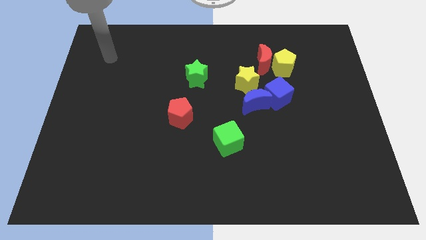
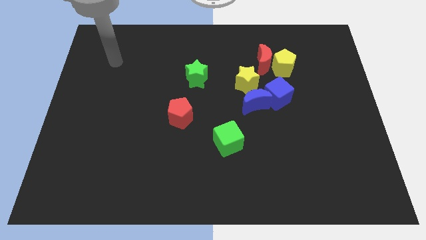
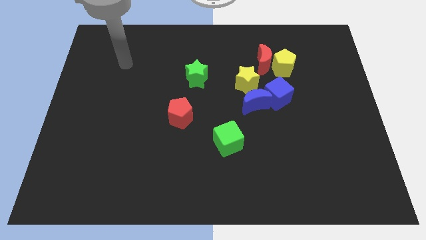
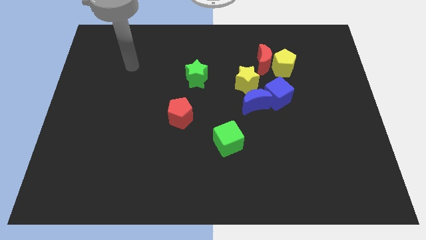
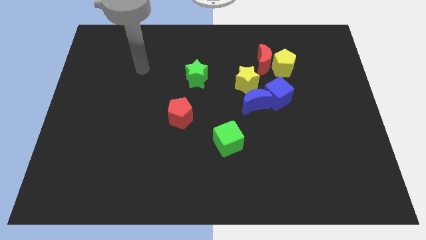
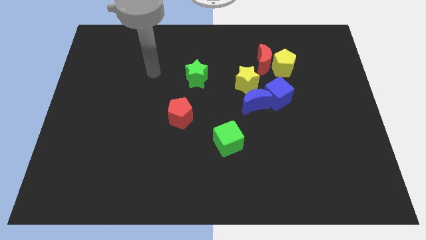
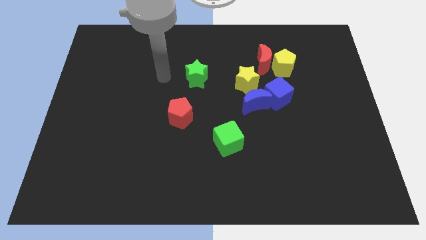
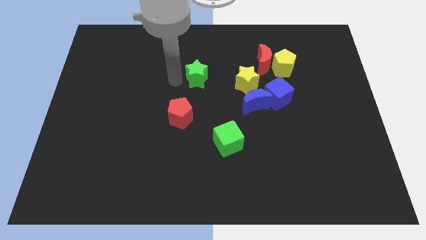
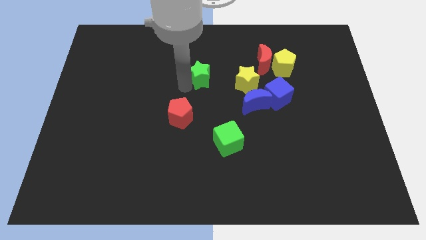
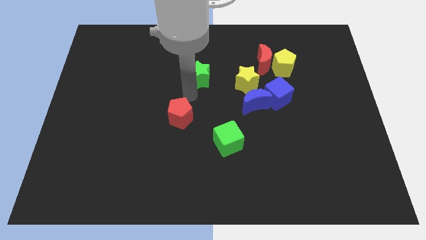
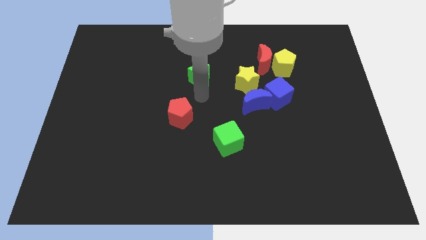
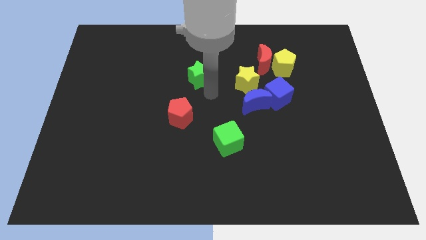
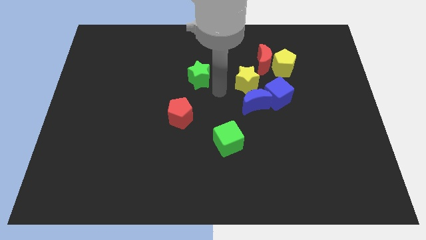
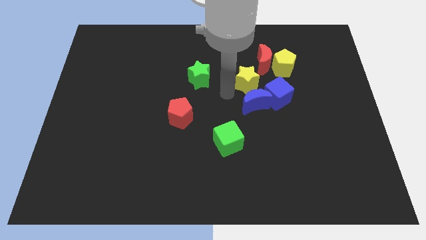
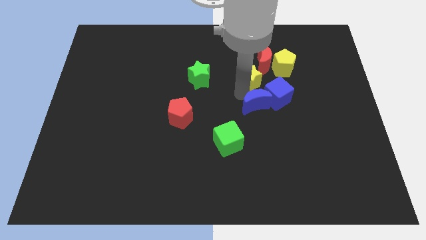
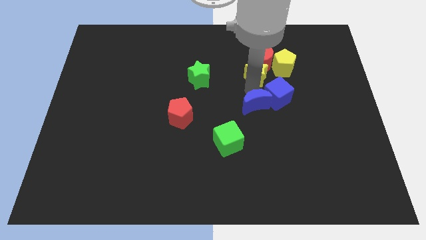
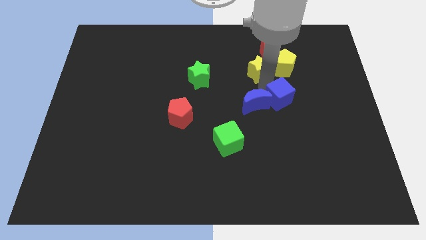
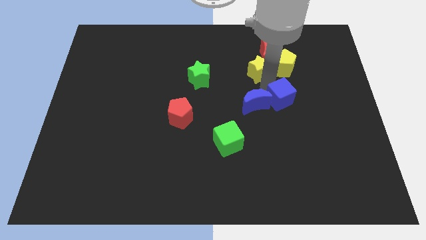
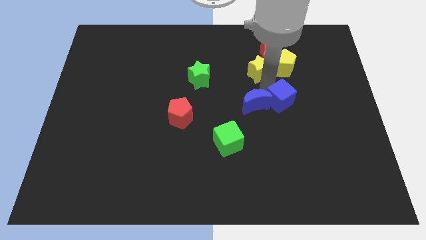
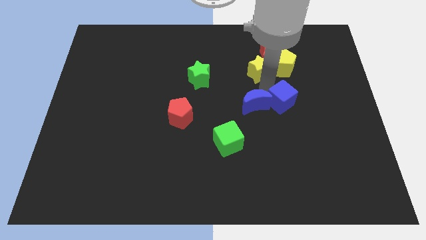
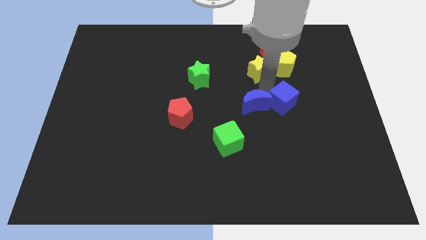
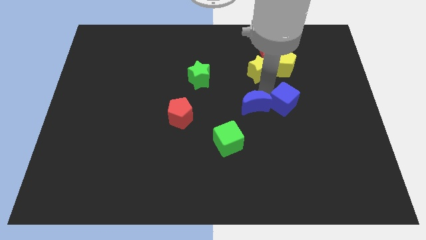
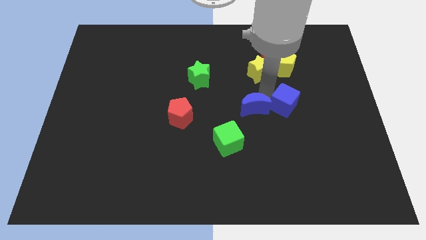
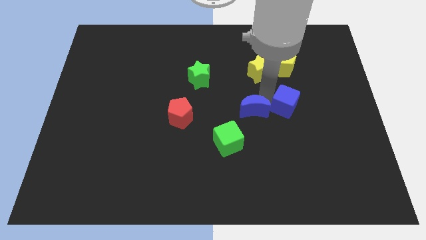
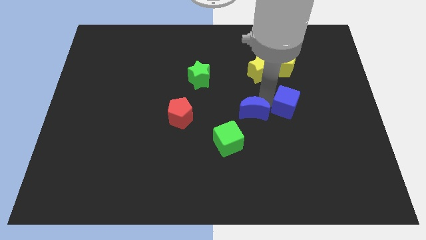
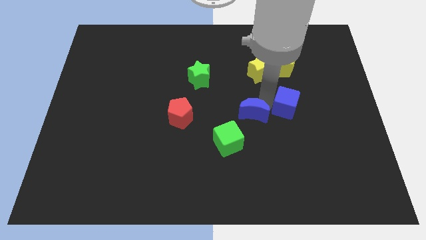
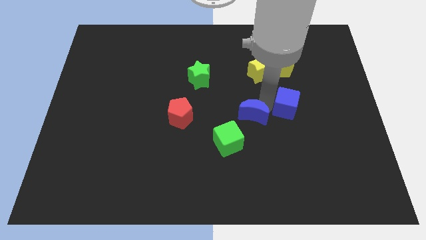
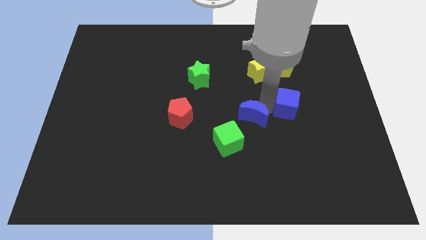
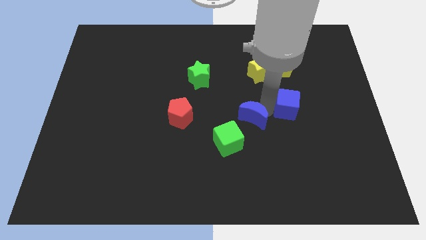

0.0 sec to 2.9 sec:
pull the blue moon apart from the blue cube and yellow star

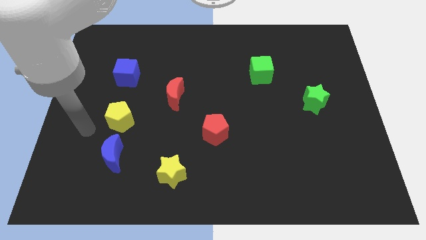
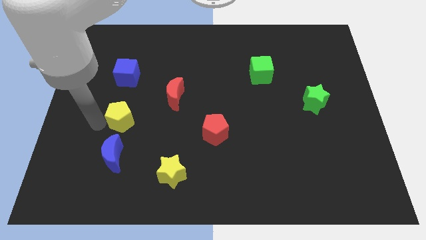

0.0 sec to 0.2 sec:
pull the blue moon apart from the yellow pentagon

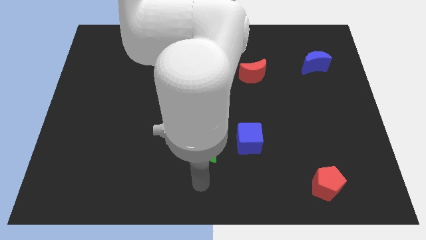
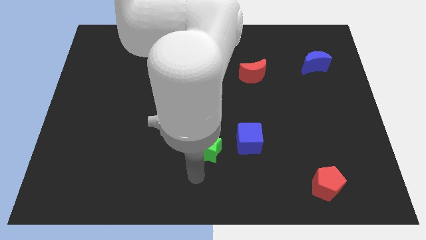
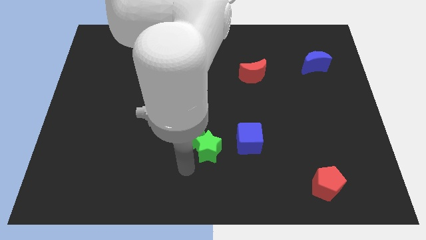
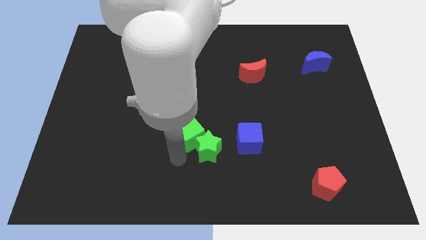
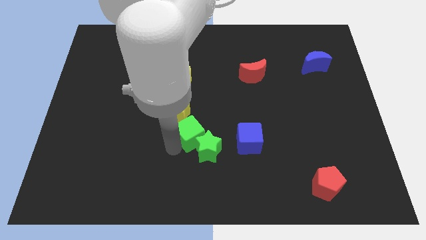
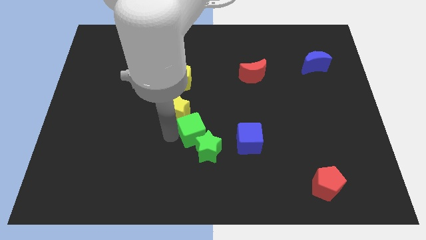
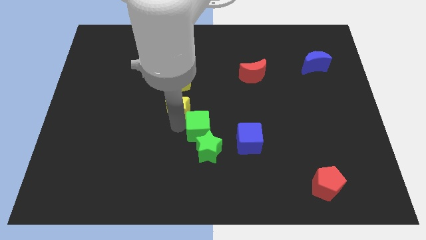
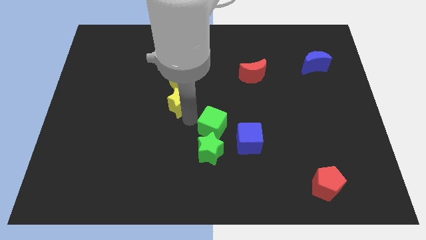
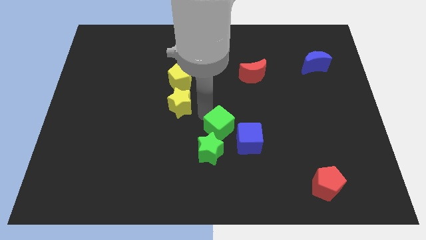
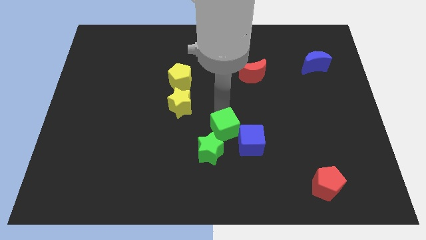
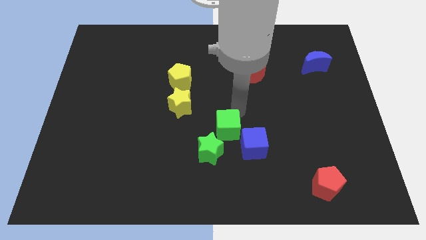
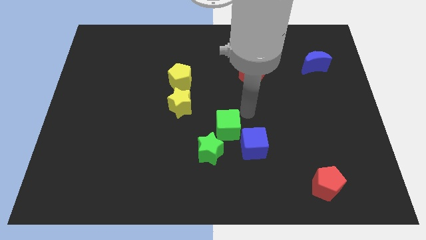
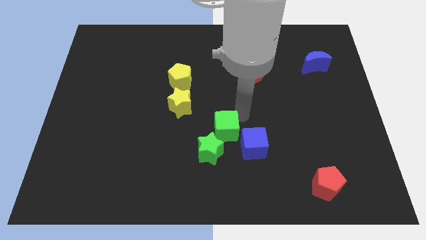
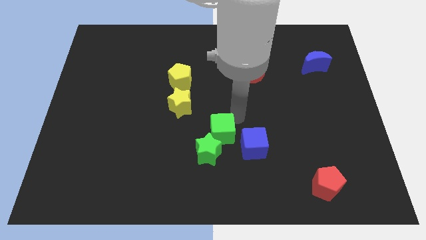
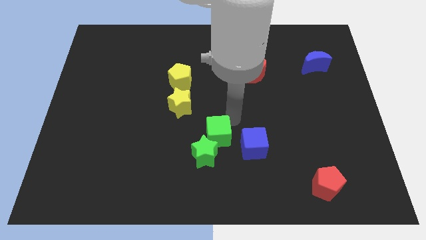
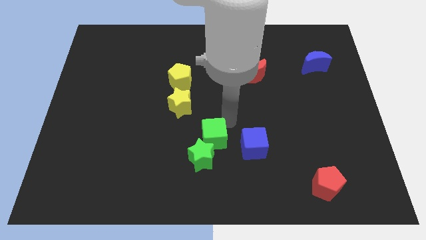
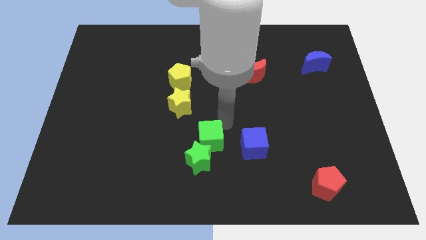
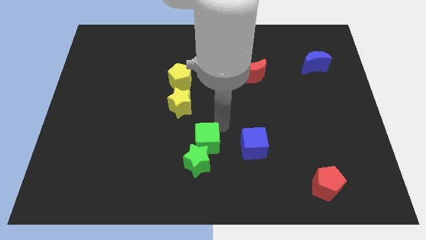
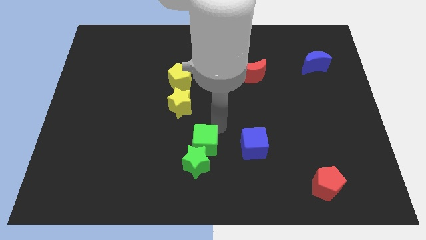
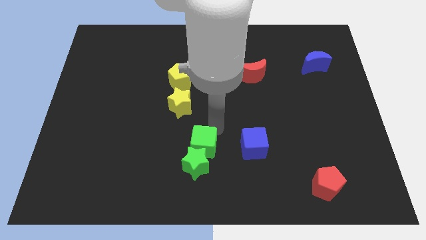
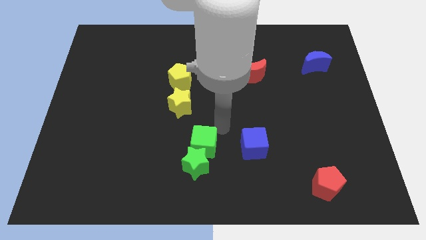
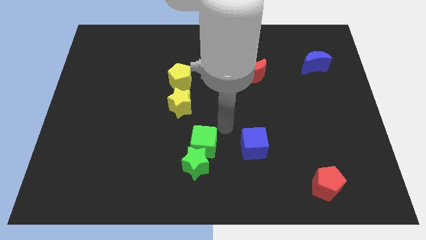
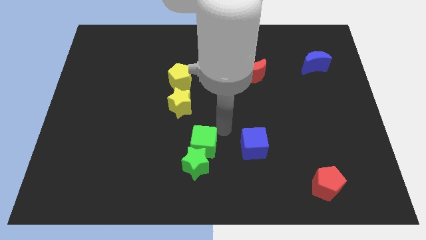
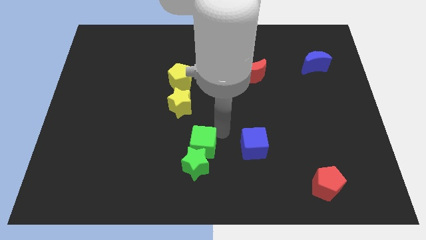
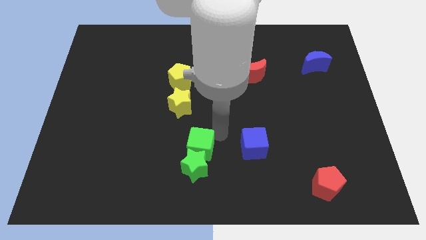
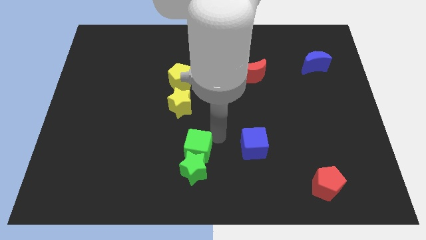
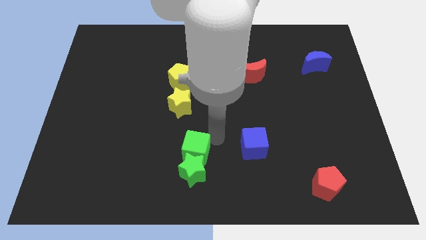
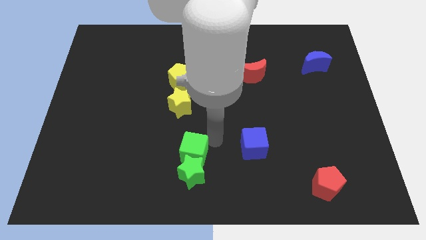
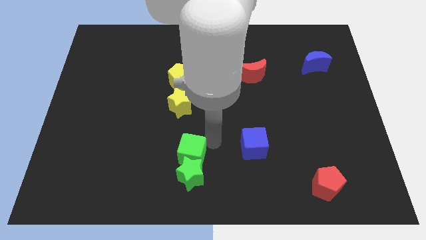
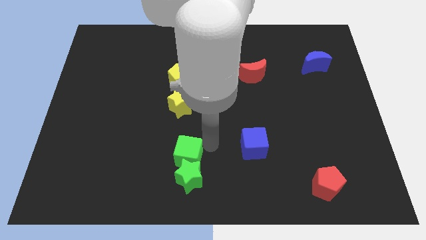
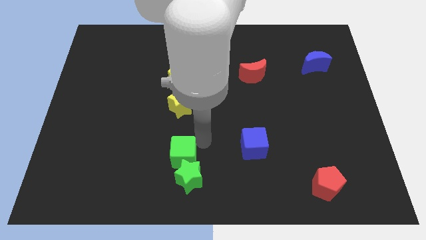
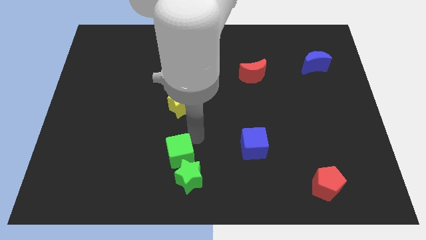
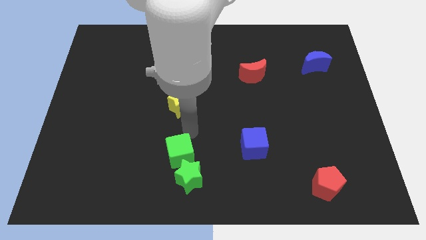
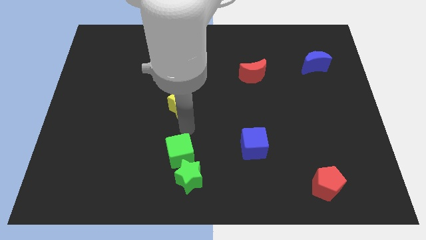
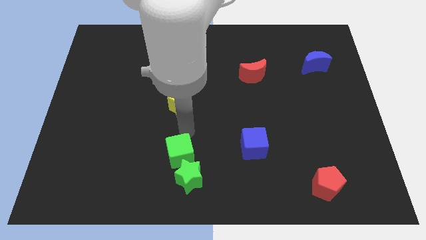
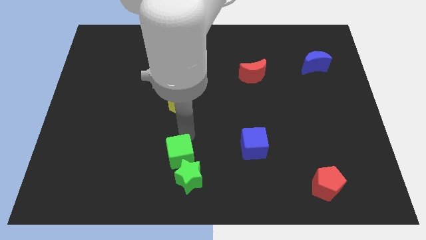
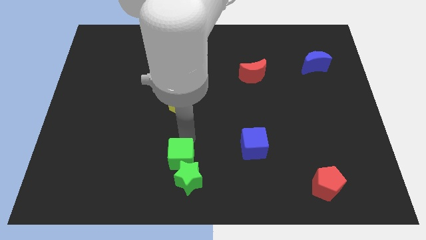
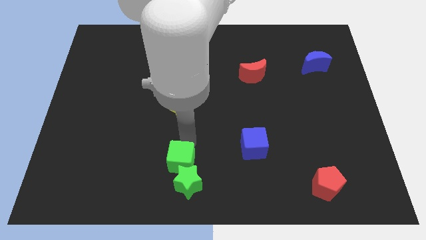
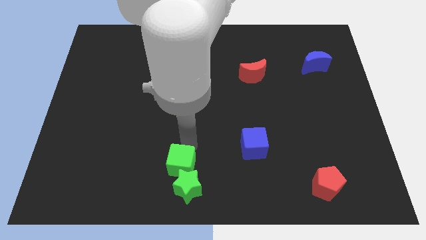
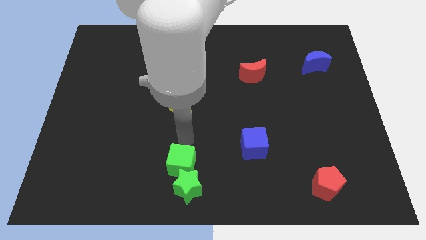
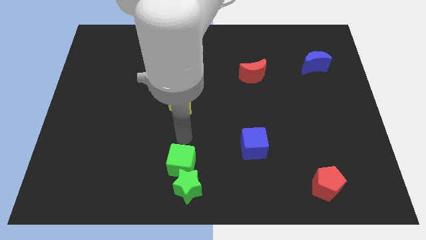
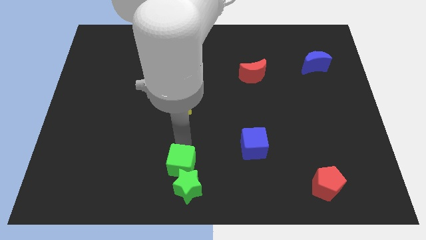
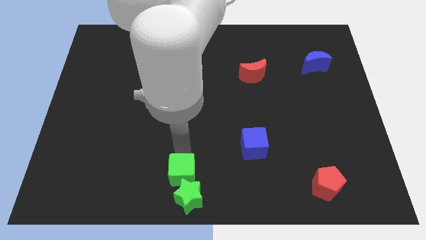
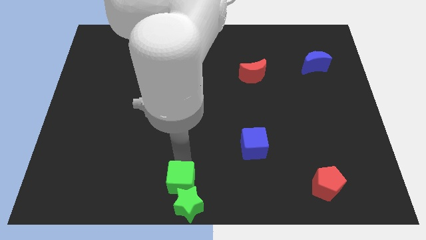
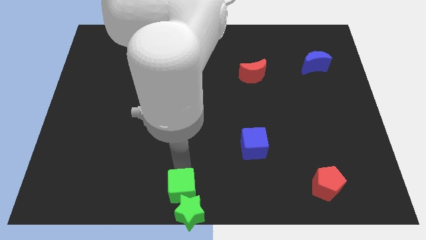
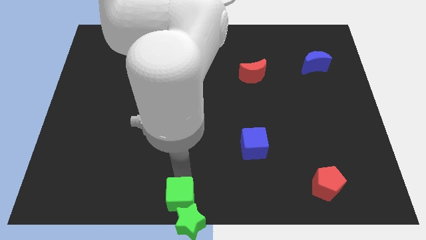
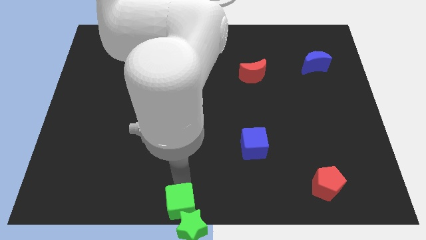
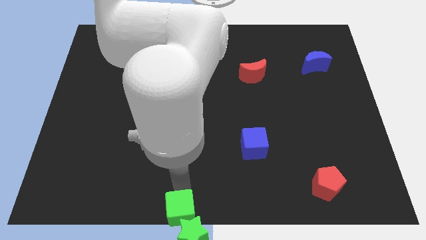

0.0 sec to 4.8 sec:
separate the green cube from the green star and yellow star

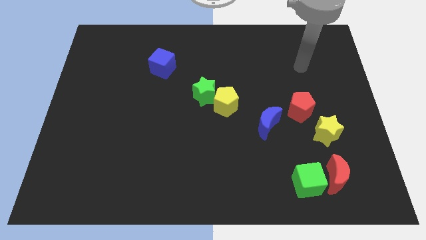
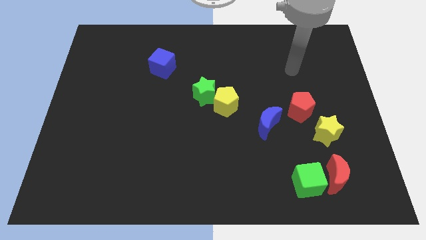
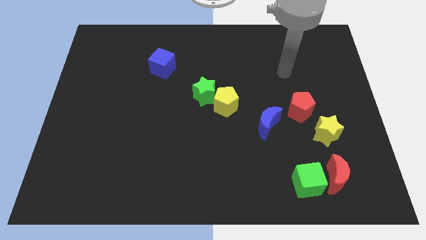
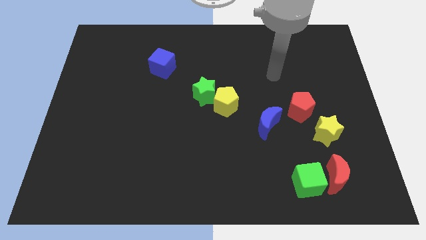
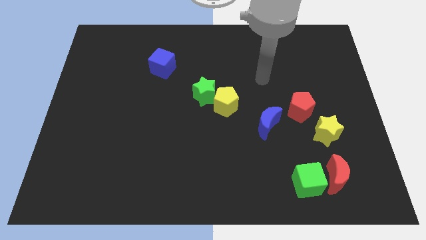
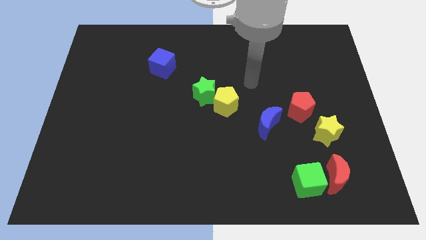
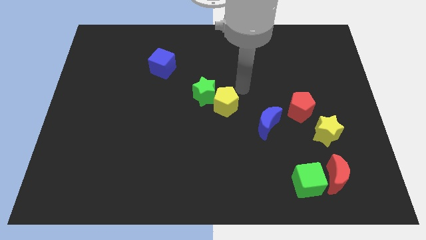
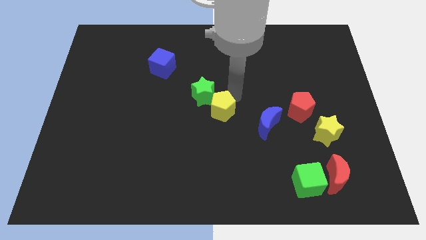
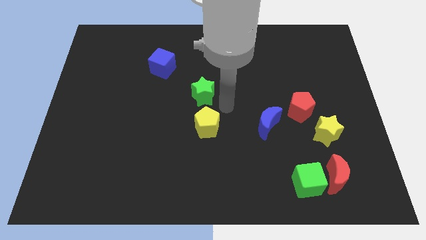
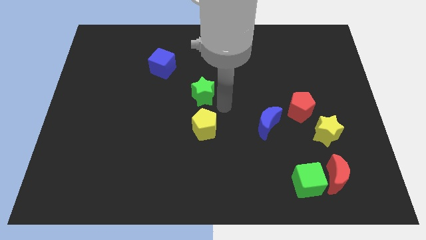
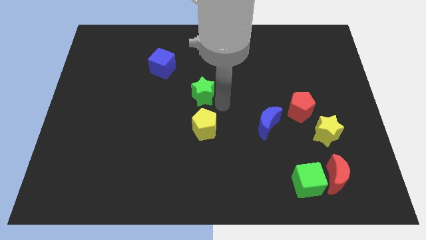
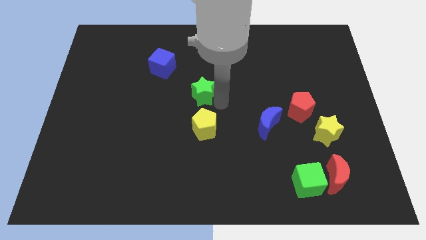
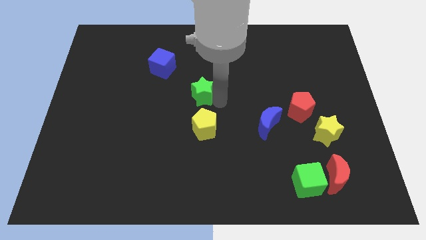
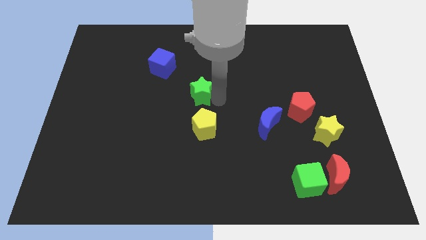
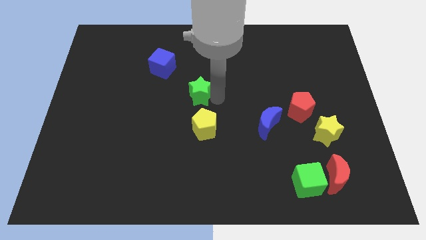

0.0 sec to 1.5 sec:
move the green star away from the yellow pentagon
